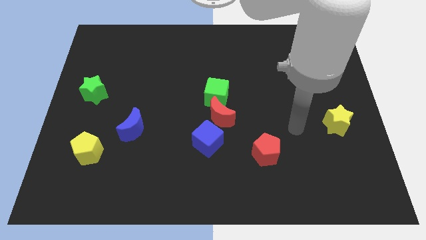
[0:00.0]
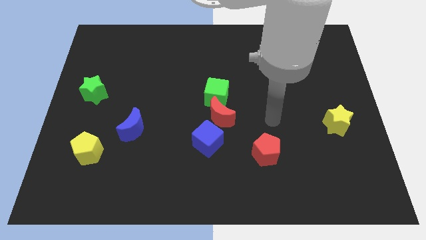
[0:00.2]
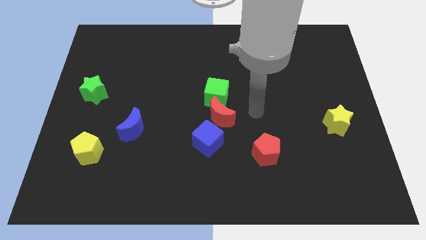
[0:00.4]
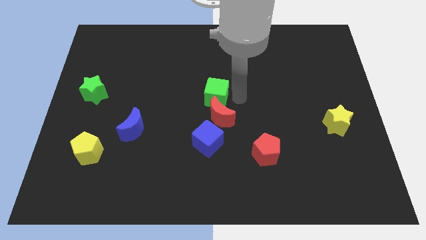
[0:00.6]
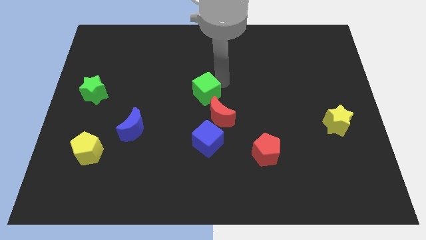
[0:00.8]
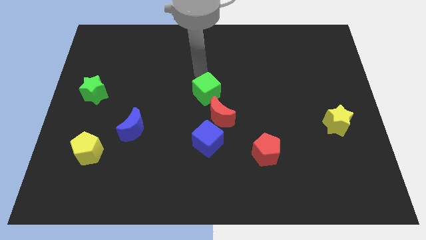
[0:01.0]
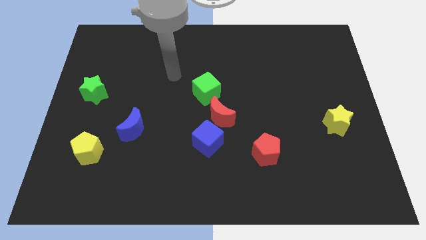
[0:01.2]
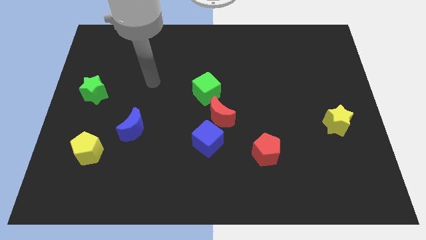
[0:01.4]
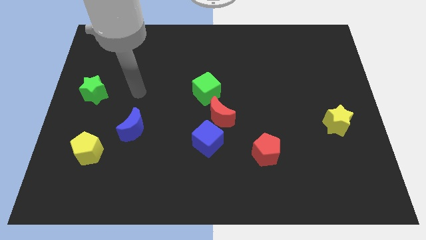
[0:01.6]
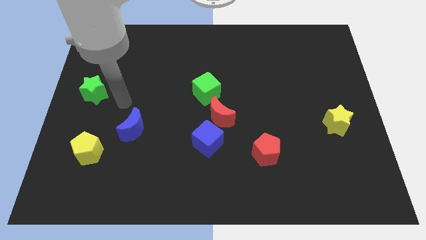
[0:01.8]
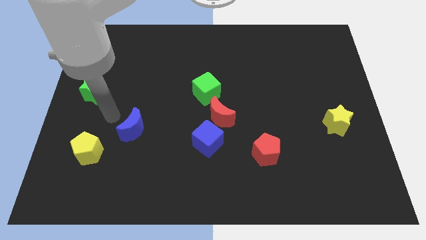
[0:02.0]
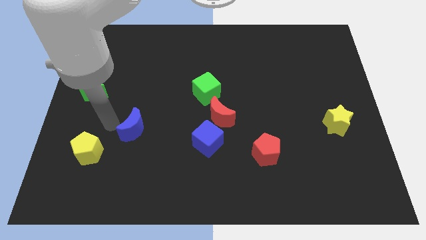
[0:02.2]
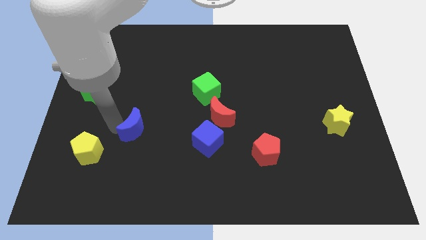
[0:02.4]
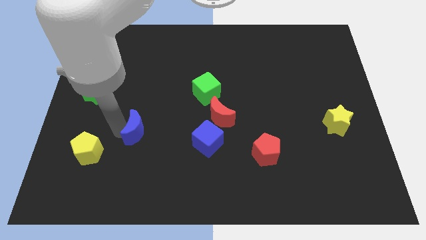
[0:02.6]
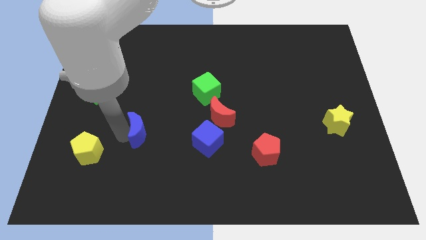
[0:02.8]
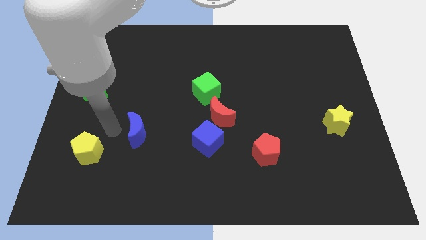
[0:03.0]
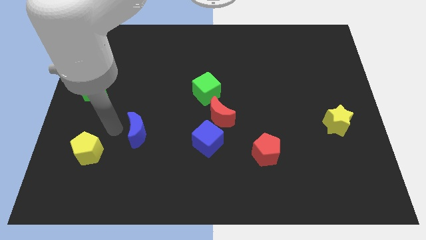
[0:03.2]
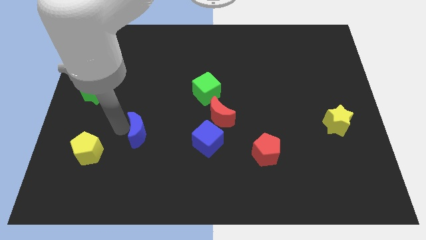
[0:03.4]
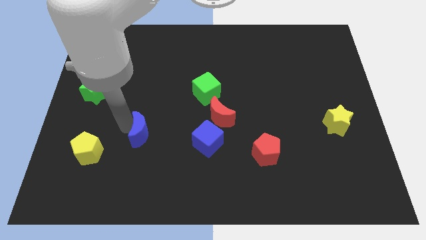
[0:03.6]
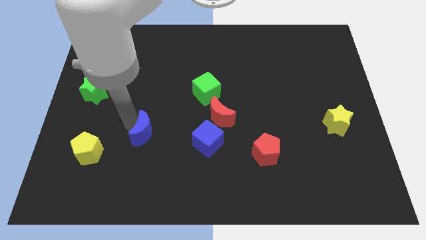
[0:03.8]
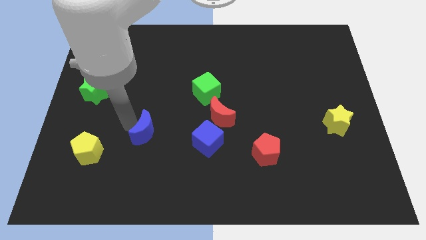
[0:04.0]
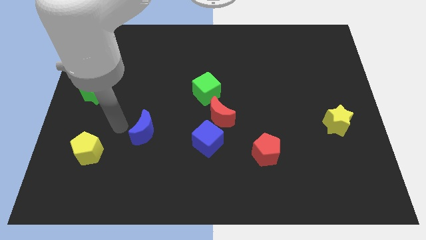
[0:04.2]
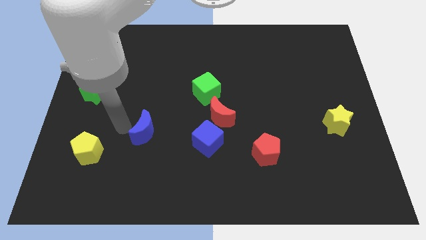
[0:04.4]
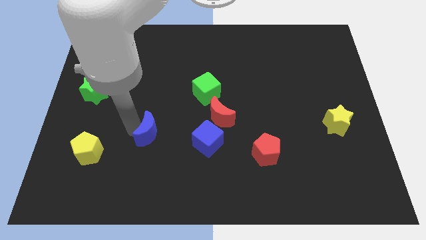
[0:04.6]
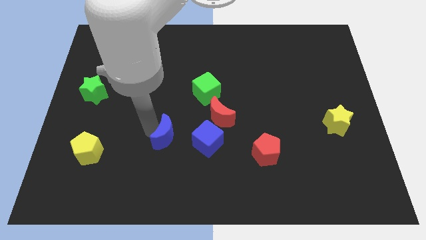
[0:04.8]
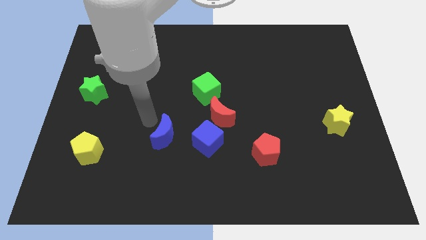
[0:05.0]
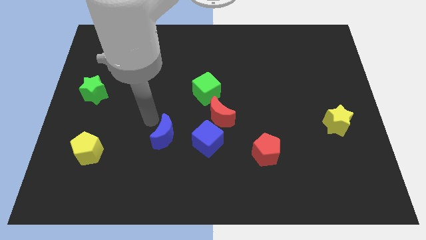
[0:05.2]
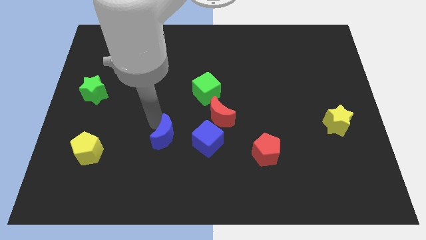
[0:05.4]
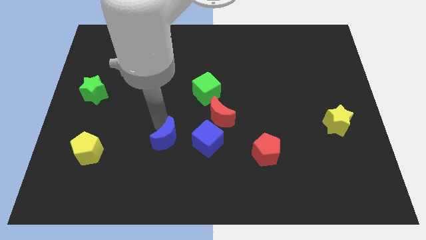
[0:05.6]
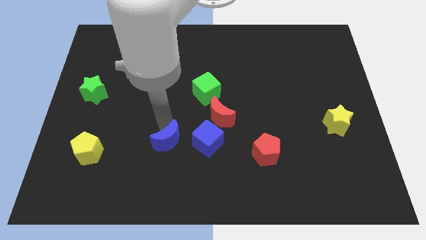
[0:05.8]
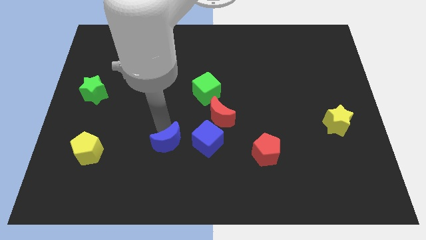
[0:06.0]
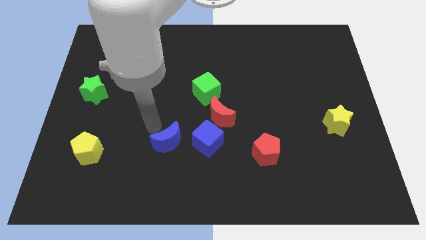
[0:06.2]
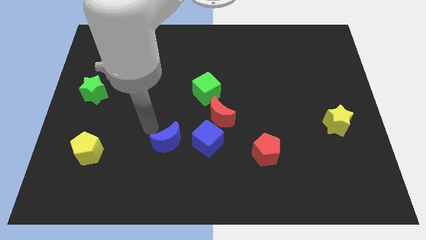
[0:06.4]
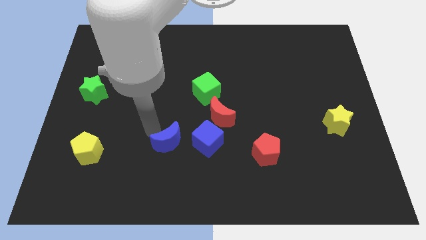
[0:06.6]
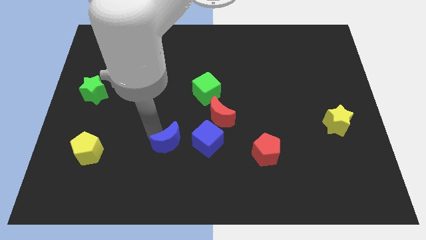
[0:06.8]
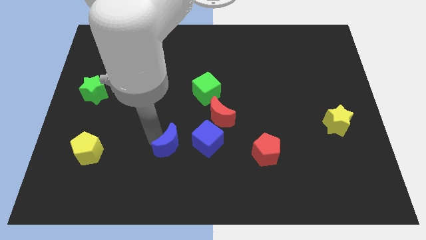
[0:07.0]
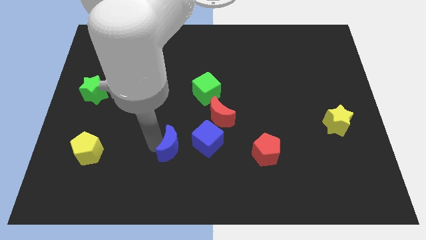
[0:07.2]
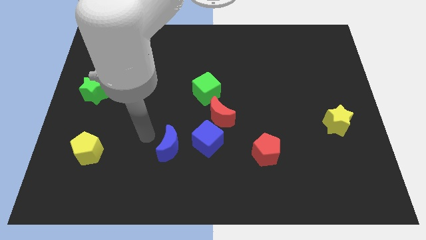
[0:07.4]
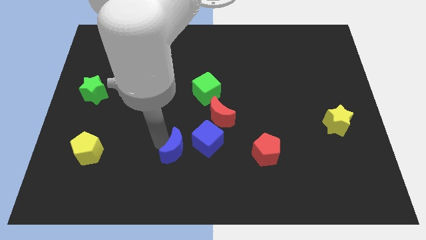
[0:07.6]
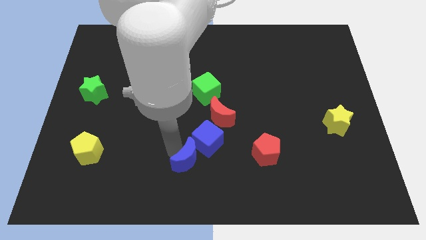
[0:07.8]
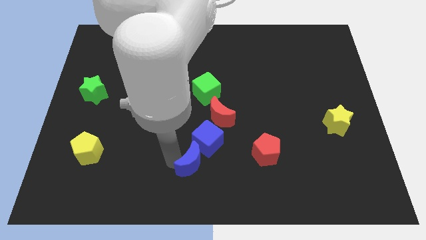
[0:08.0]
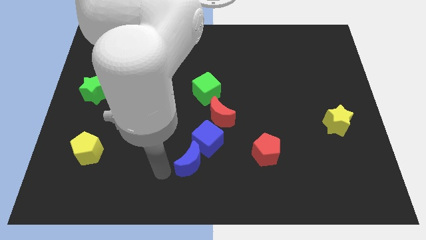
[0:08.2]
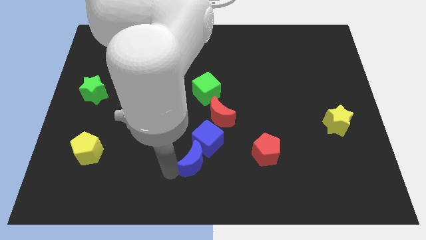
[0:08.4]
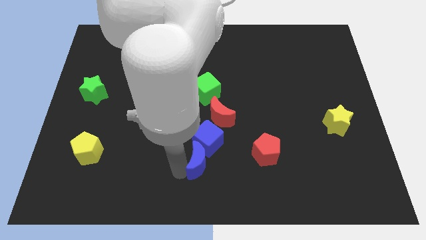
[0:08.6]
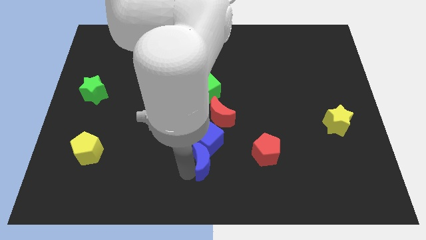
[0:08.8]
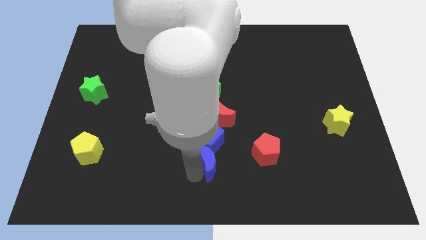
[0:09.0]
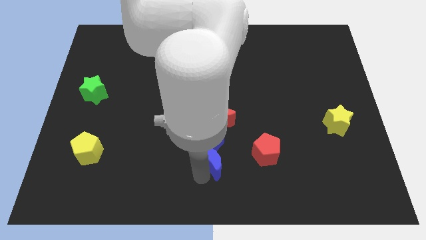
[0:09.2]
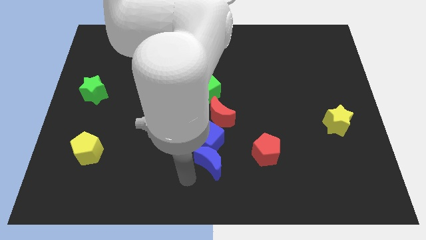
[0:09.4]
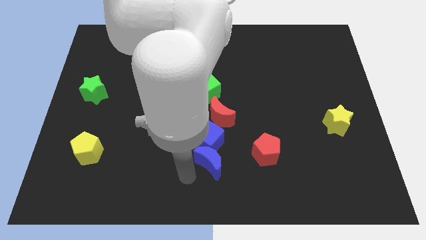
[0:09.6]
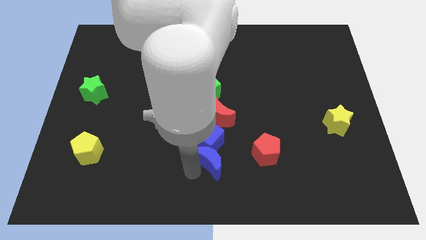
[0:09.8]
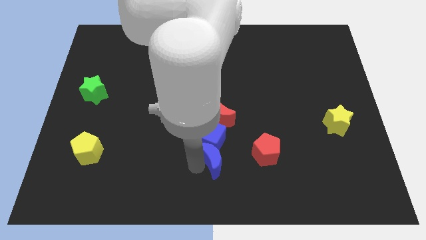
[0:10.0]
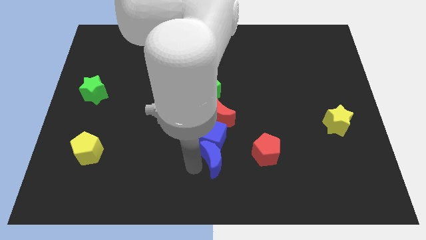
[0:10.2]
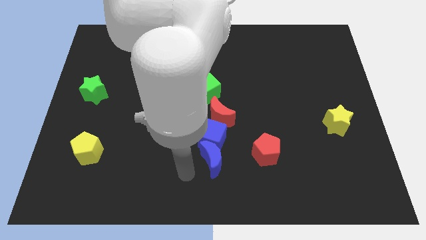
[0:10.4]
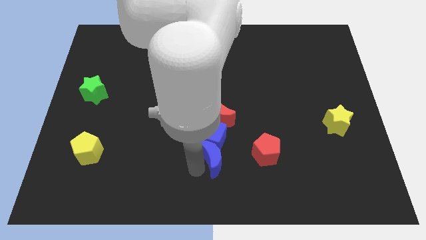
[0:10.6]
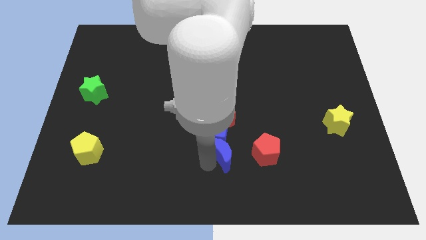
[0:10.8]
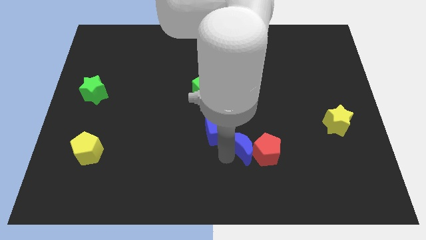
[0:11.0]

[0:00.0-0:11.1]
move the blue moon right of the blue cube

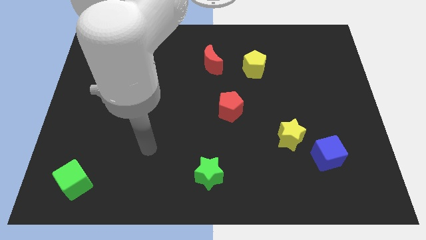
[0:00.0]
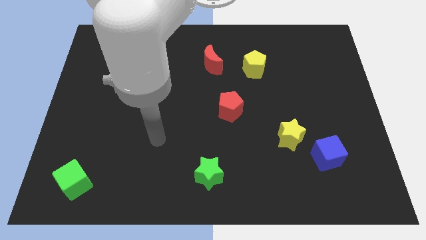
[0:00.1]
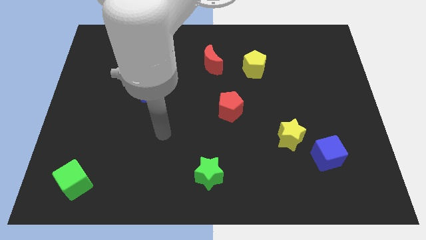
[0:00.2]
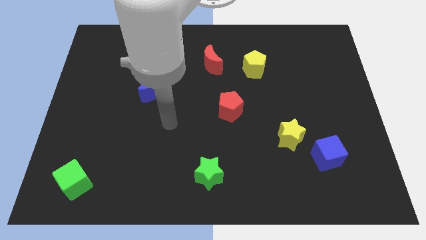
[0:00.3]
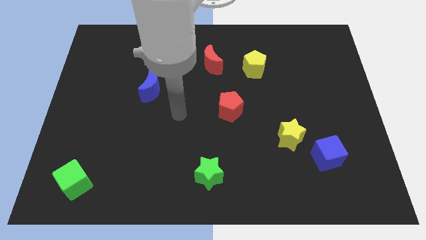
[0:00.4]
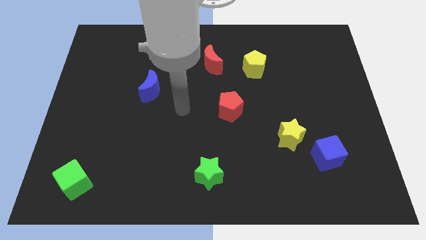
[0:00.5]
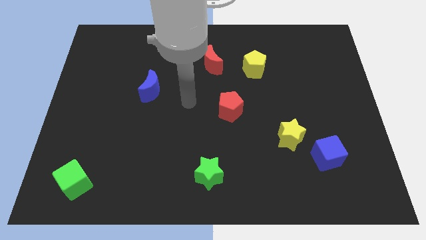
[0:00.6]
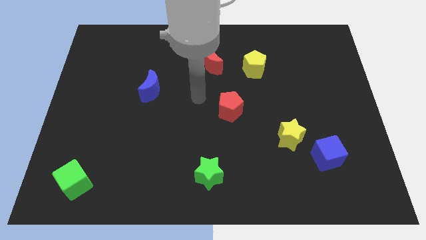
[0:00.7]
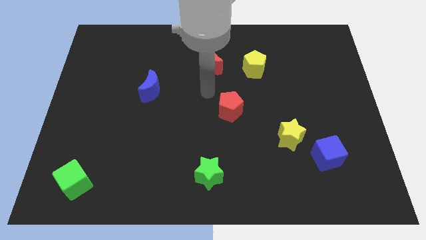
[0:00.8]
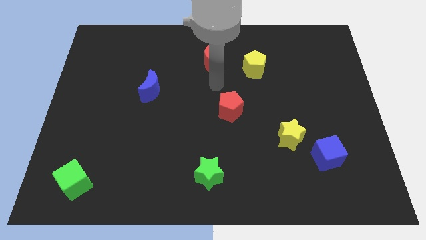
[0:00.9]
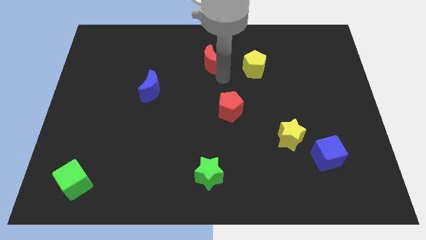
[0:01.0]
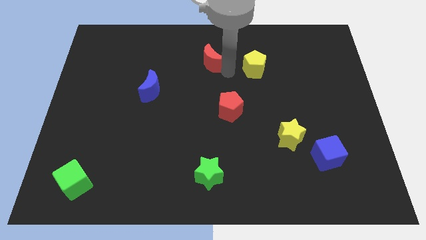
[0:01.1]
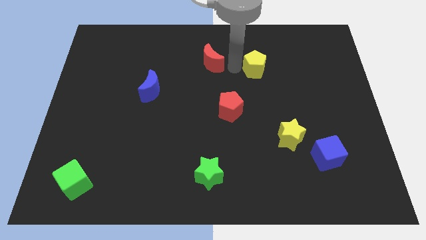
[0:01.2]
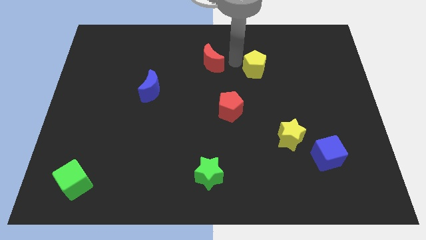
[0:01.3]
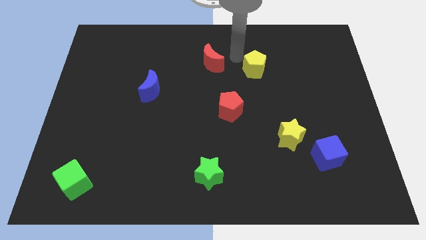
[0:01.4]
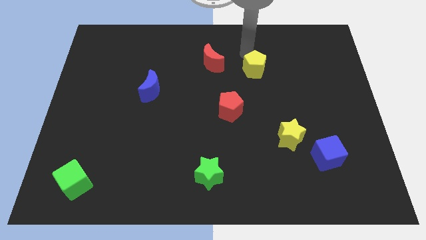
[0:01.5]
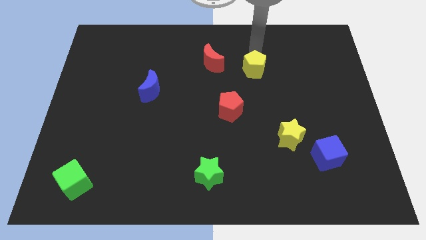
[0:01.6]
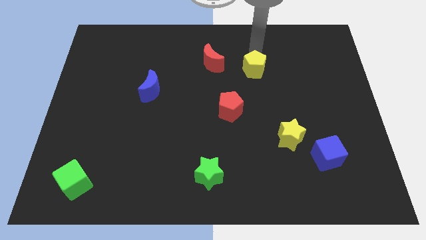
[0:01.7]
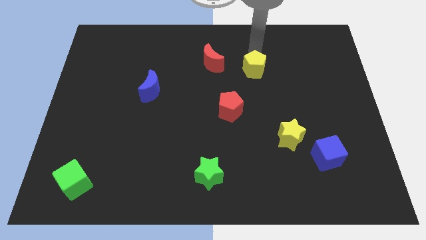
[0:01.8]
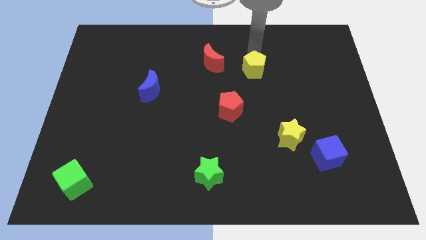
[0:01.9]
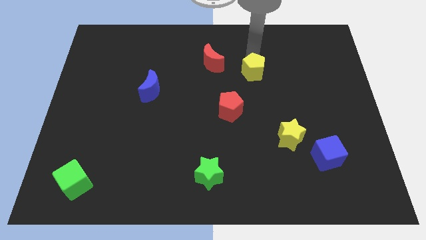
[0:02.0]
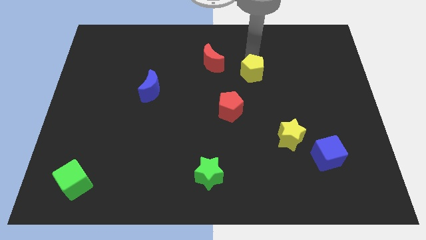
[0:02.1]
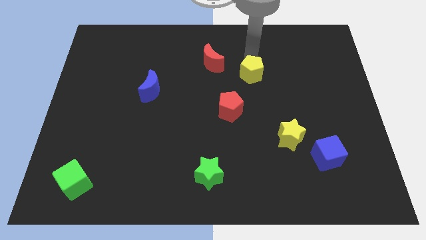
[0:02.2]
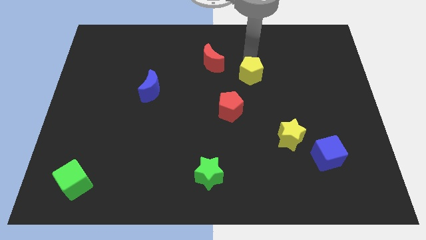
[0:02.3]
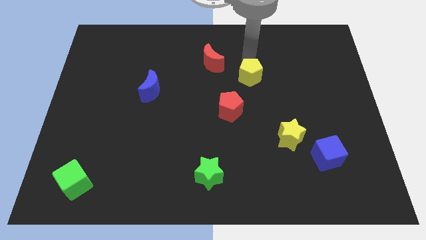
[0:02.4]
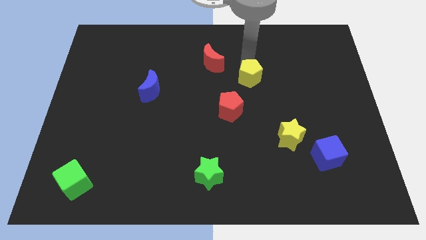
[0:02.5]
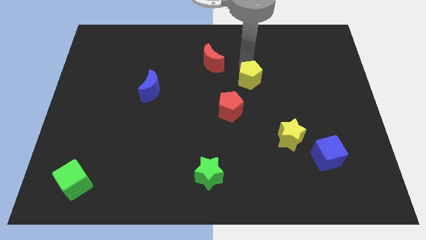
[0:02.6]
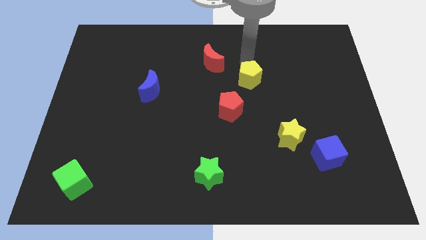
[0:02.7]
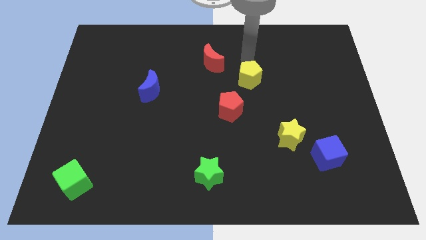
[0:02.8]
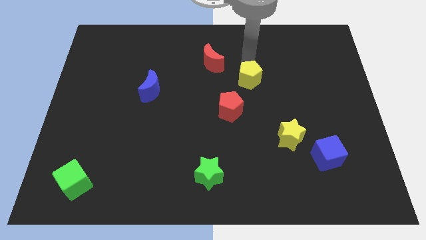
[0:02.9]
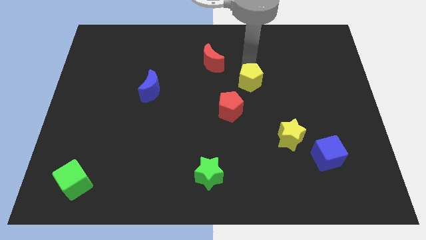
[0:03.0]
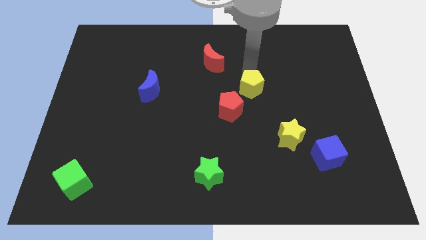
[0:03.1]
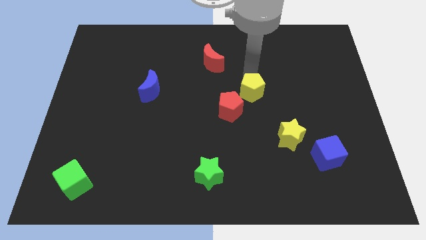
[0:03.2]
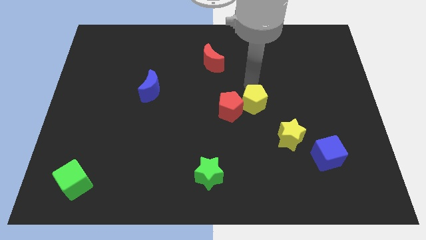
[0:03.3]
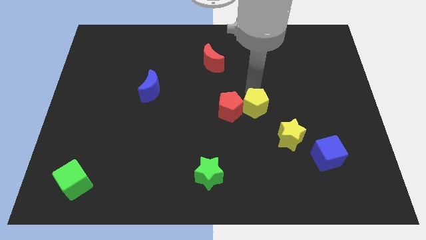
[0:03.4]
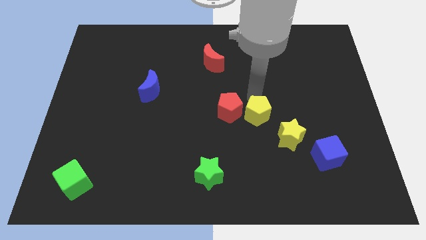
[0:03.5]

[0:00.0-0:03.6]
push the yellow pentagon diagonally down and to the right of the red pentagon
